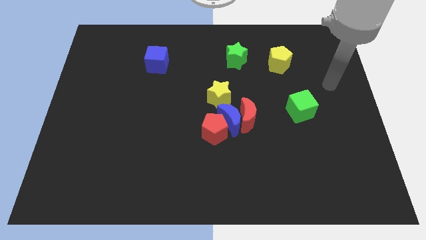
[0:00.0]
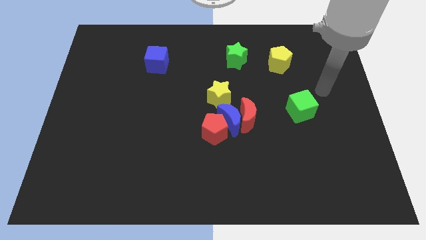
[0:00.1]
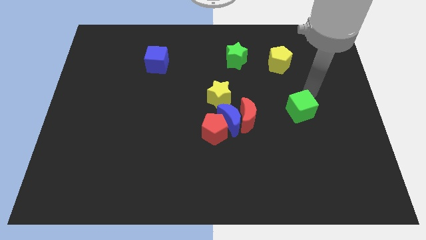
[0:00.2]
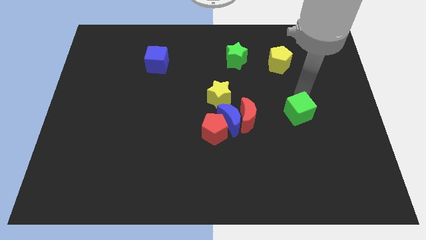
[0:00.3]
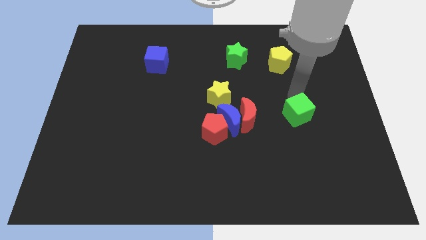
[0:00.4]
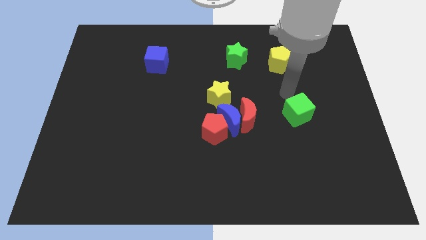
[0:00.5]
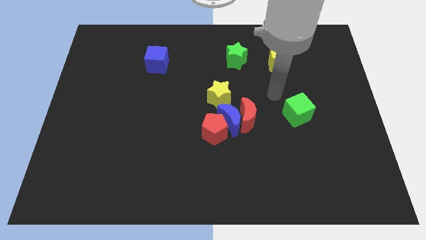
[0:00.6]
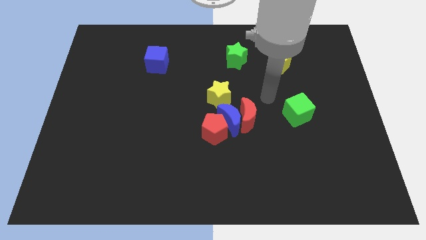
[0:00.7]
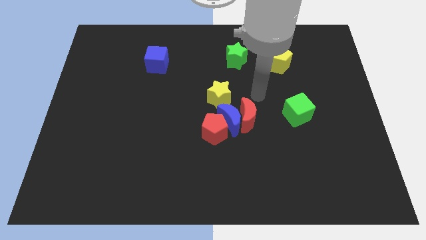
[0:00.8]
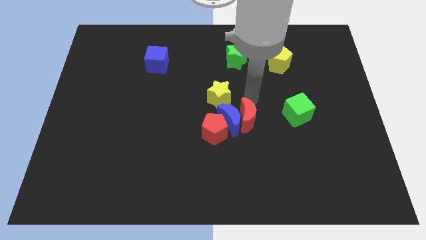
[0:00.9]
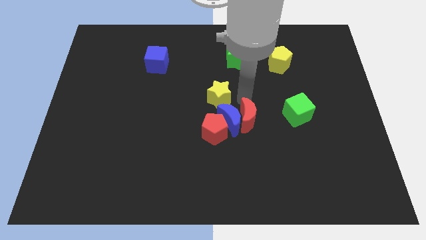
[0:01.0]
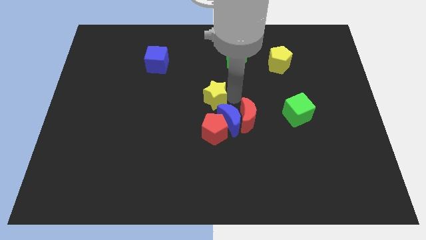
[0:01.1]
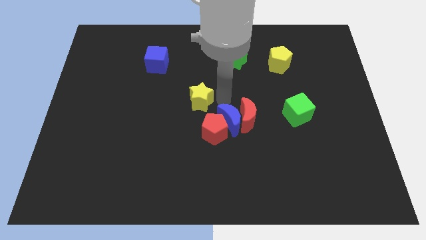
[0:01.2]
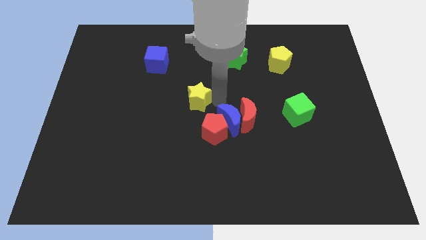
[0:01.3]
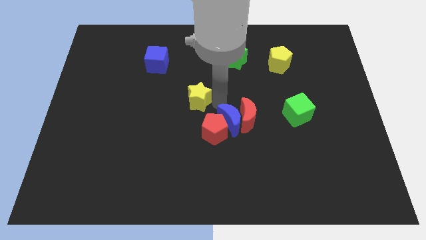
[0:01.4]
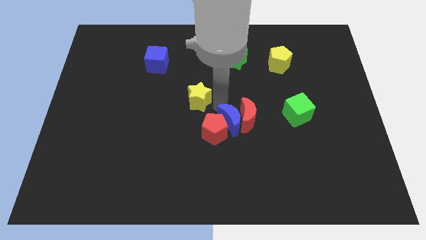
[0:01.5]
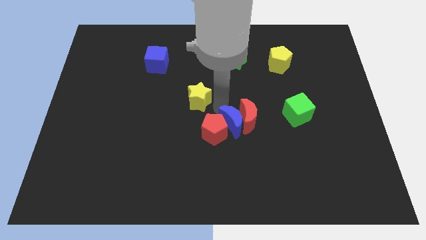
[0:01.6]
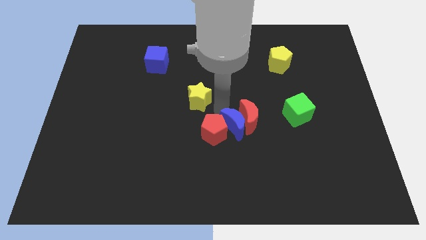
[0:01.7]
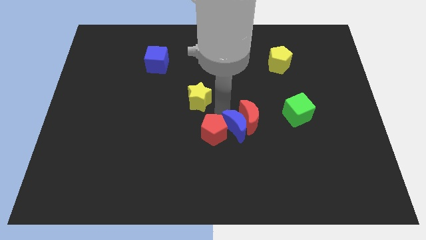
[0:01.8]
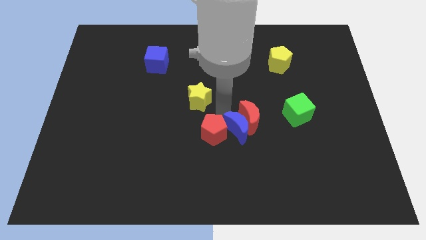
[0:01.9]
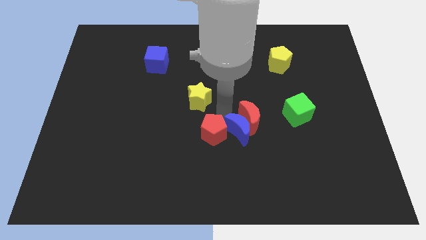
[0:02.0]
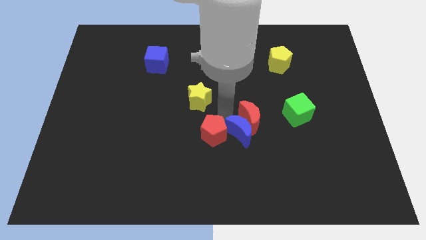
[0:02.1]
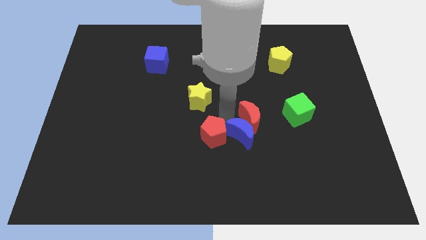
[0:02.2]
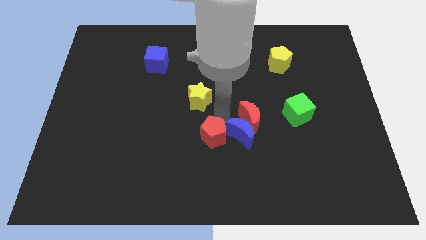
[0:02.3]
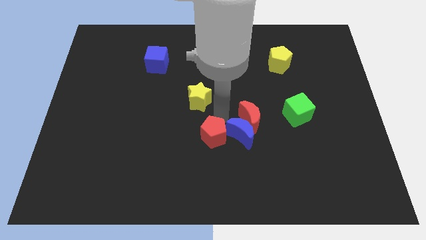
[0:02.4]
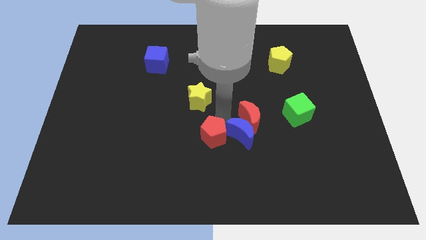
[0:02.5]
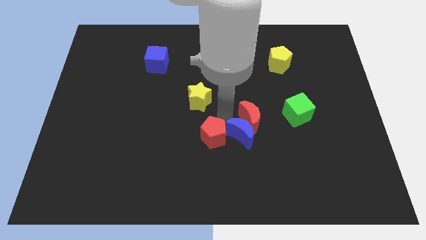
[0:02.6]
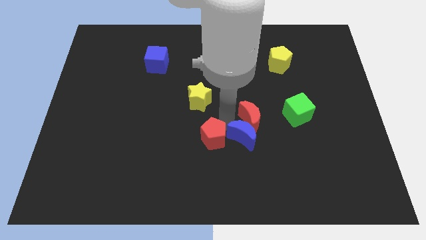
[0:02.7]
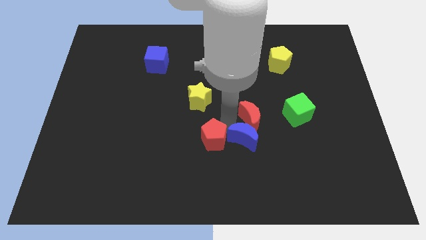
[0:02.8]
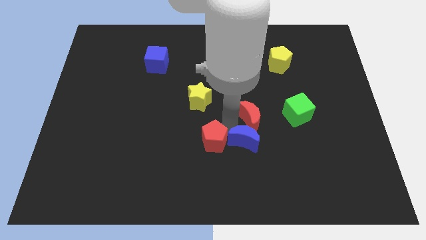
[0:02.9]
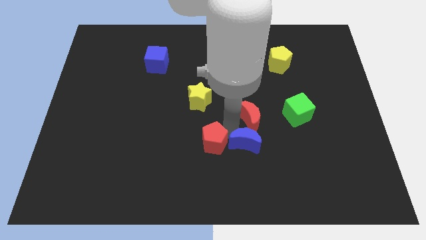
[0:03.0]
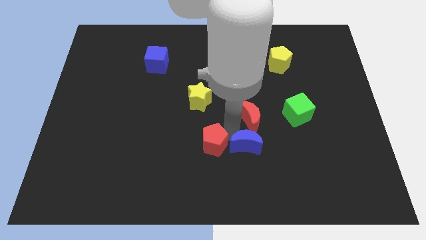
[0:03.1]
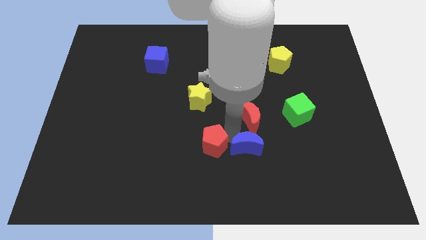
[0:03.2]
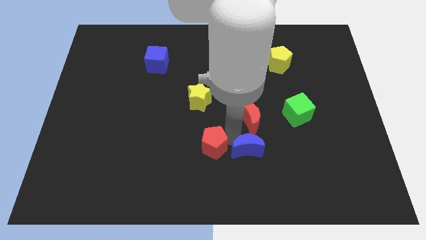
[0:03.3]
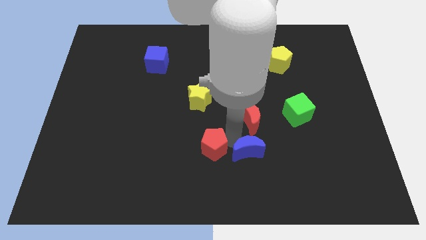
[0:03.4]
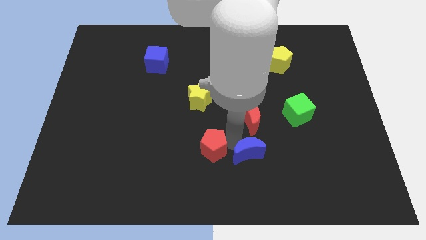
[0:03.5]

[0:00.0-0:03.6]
separate the blue moon from the clump

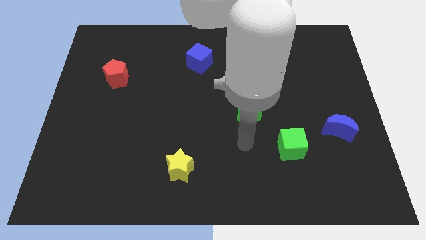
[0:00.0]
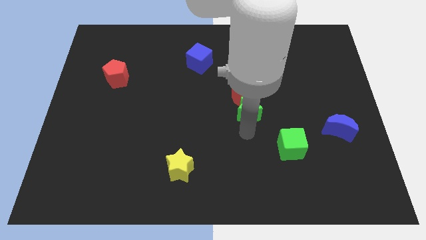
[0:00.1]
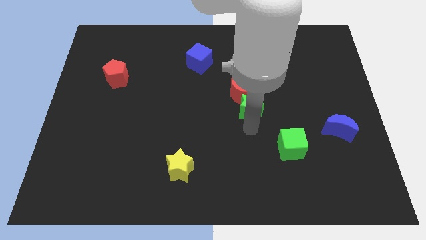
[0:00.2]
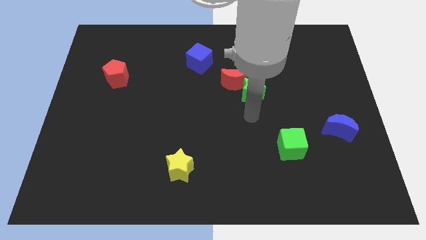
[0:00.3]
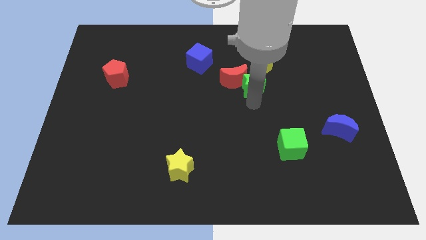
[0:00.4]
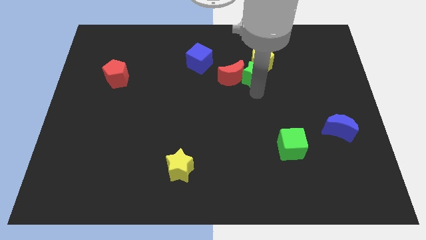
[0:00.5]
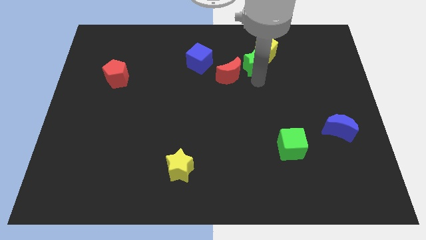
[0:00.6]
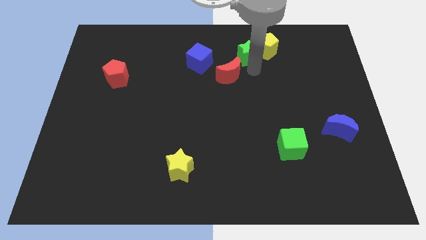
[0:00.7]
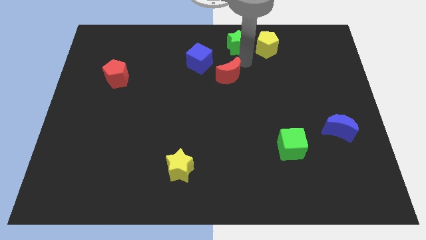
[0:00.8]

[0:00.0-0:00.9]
separate the red moon from the green star

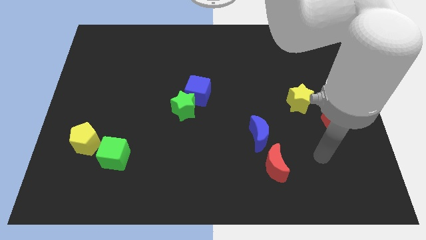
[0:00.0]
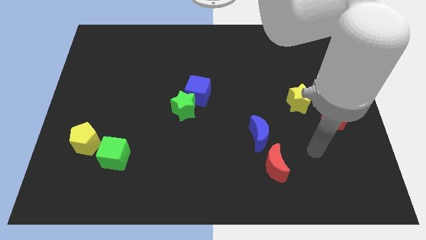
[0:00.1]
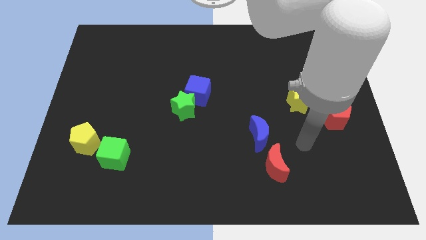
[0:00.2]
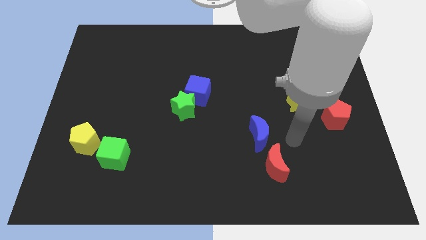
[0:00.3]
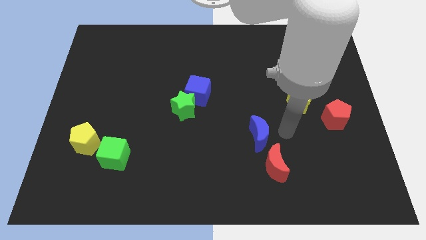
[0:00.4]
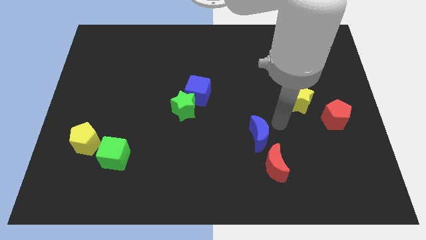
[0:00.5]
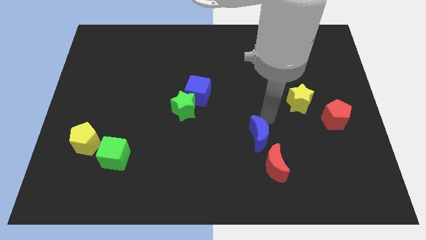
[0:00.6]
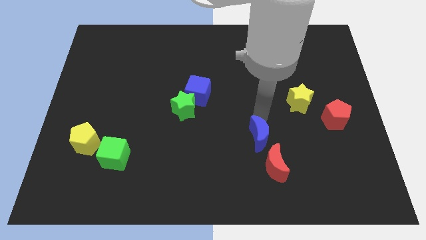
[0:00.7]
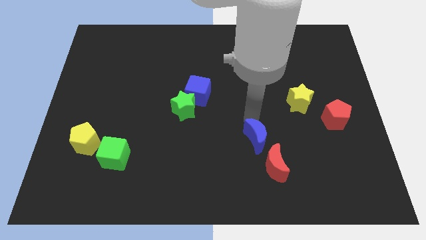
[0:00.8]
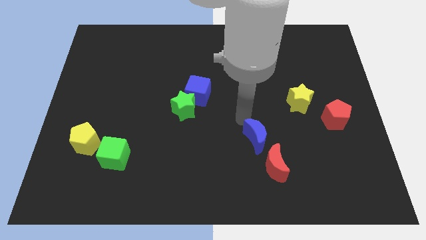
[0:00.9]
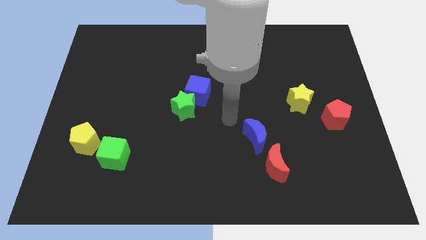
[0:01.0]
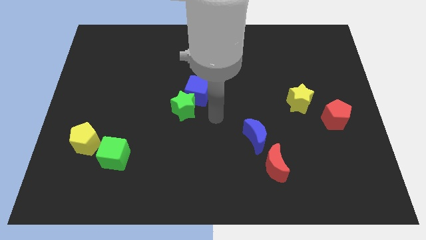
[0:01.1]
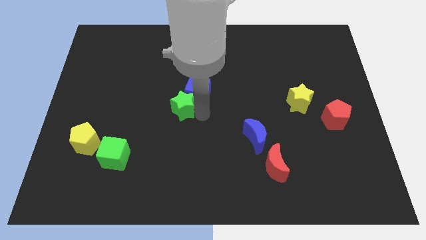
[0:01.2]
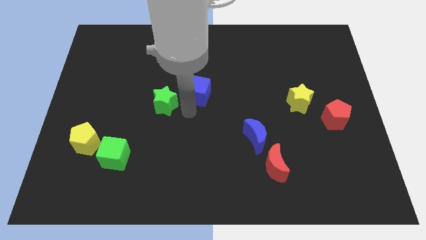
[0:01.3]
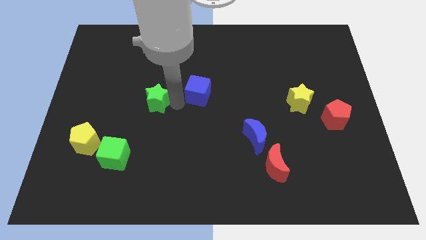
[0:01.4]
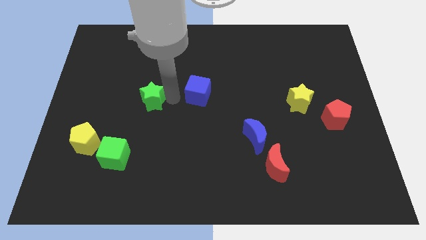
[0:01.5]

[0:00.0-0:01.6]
separate the blue cube from the green star

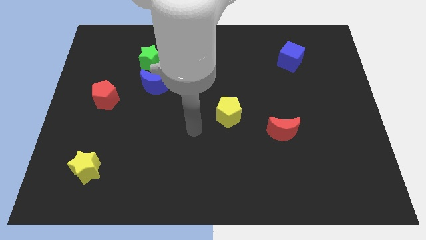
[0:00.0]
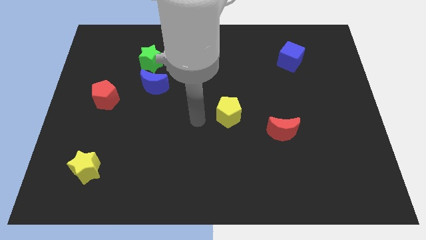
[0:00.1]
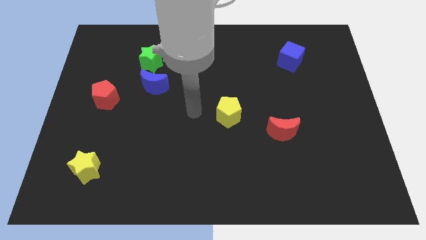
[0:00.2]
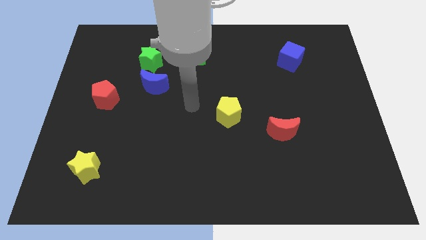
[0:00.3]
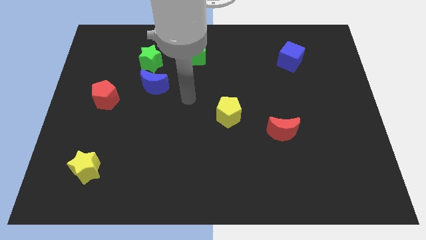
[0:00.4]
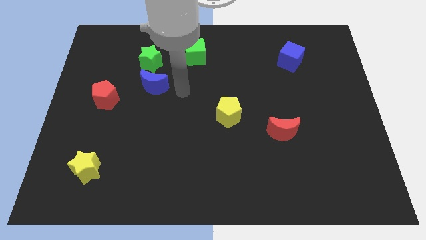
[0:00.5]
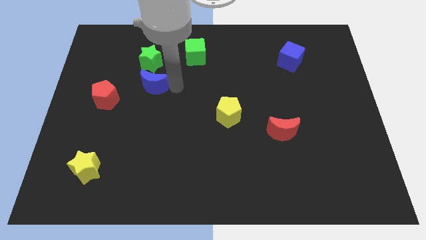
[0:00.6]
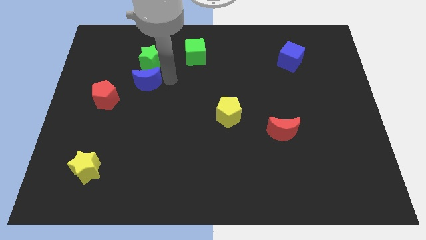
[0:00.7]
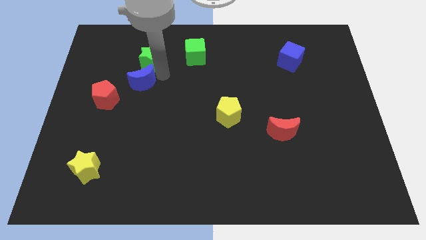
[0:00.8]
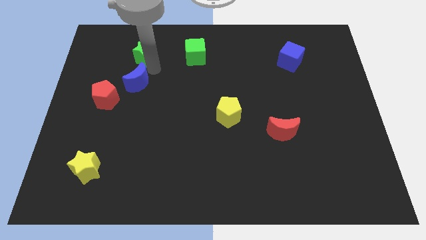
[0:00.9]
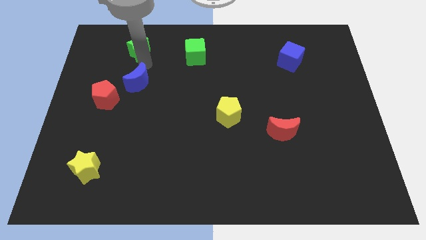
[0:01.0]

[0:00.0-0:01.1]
pull the blue moon apart from the green star

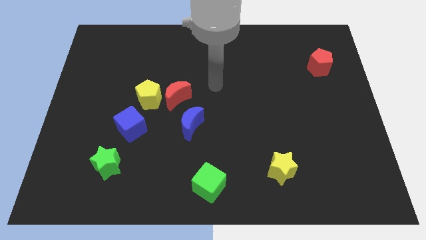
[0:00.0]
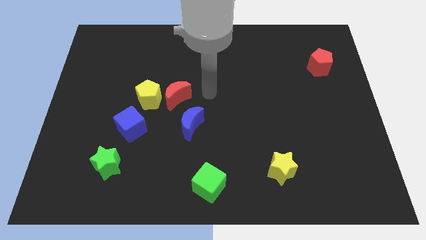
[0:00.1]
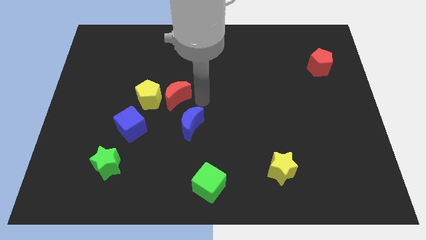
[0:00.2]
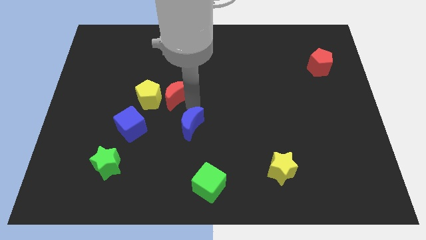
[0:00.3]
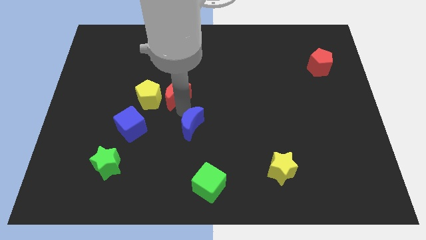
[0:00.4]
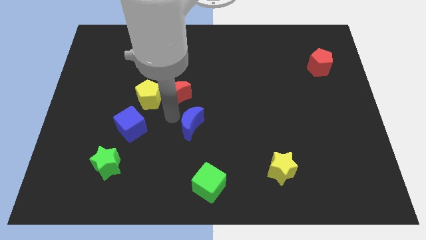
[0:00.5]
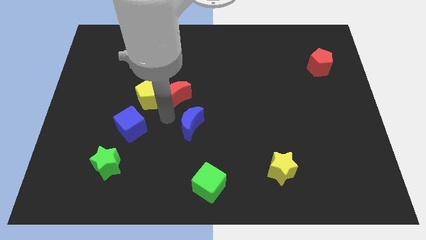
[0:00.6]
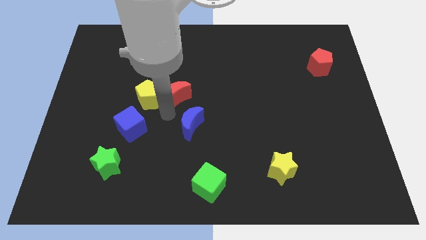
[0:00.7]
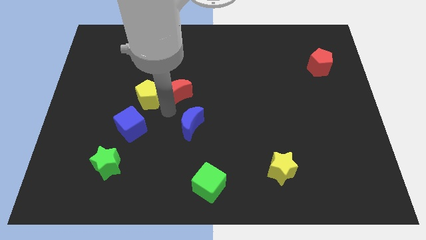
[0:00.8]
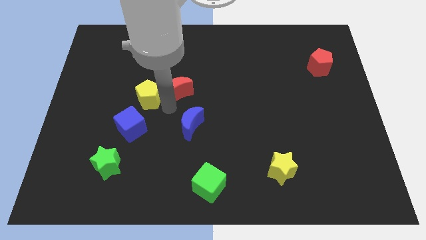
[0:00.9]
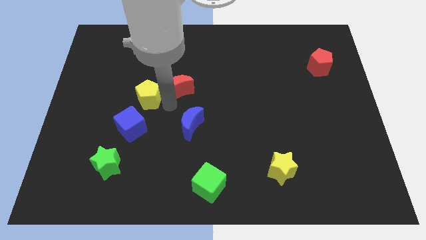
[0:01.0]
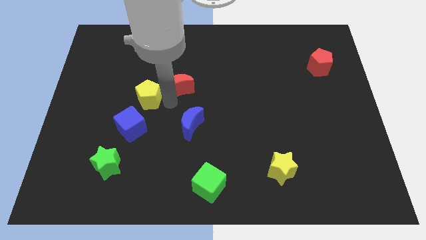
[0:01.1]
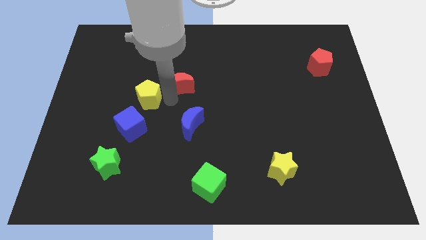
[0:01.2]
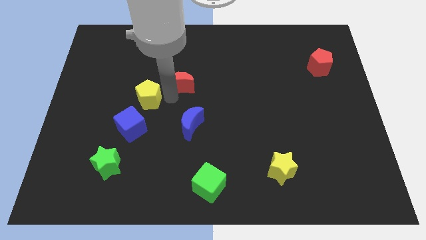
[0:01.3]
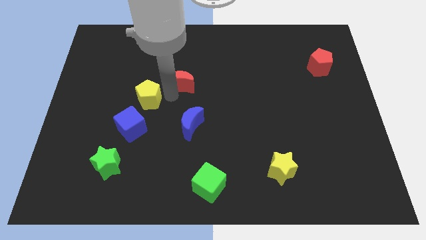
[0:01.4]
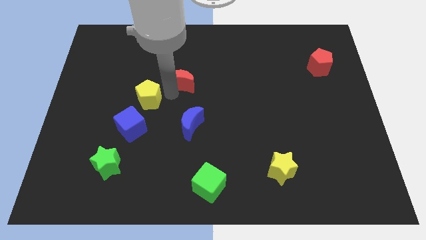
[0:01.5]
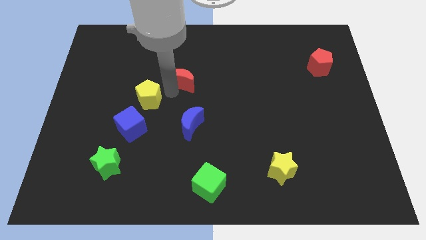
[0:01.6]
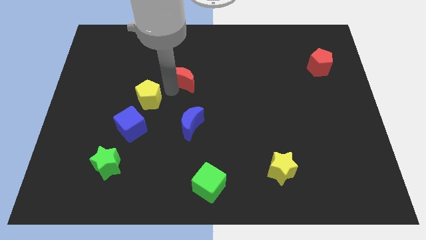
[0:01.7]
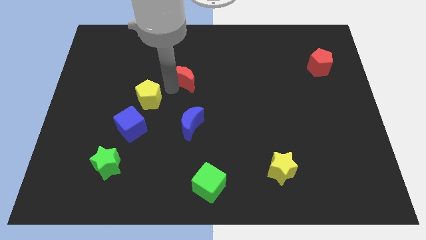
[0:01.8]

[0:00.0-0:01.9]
separate the red moon from the yellow pentagon and blue moon

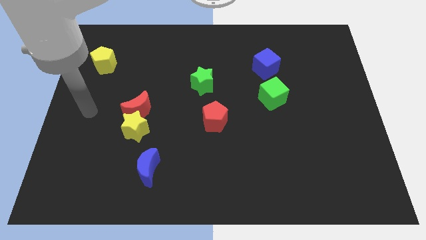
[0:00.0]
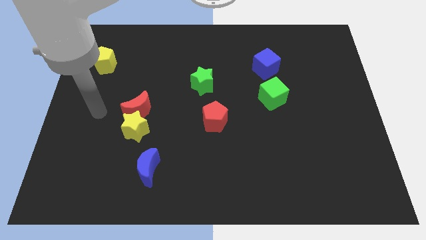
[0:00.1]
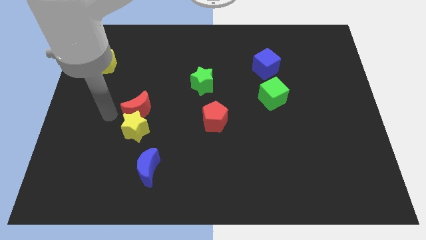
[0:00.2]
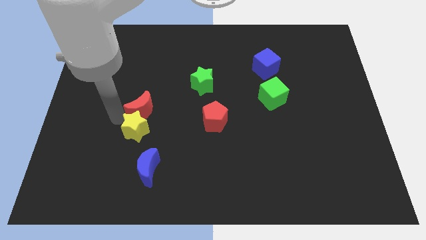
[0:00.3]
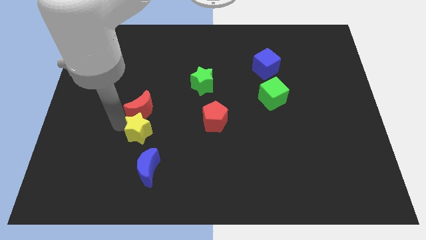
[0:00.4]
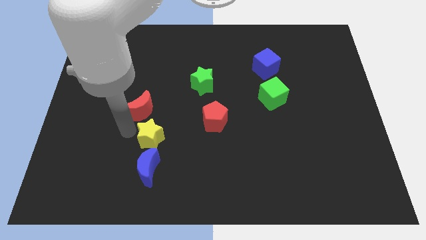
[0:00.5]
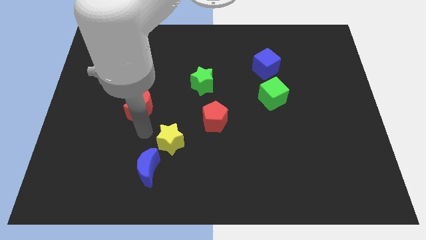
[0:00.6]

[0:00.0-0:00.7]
separate the red moon from the yellow star
